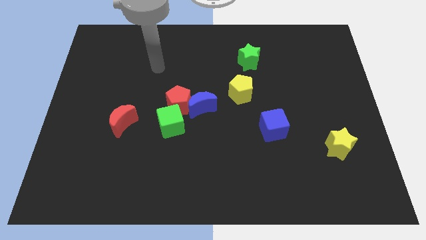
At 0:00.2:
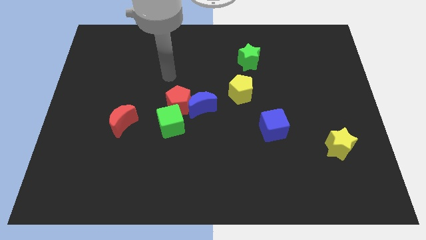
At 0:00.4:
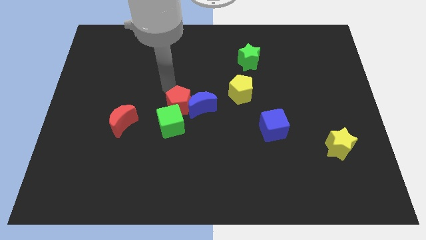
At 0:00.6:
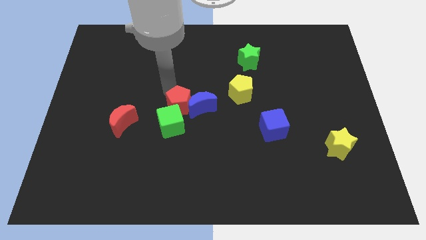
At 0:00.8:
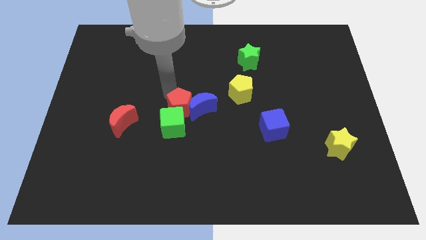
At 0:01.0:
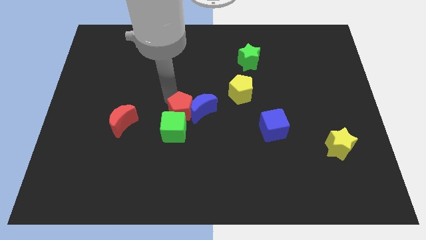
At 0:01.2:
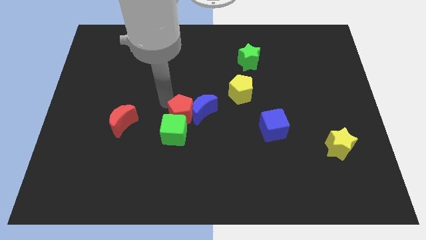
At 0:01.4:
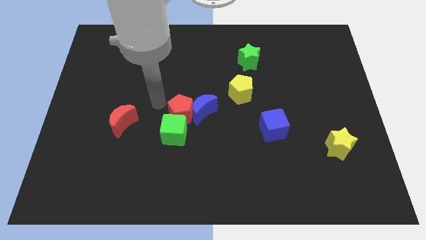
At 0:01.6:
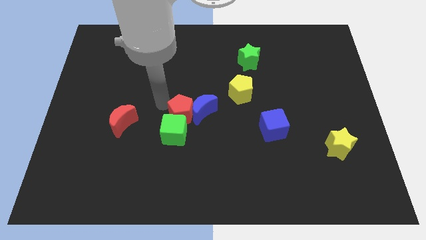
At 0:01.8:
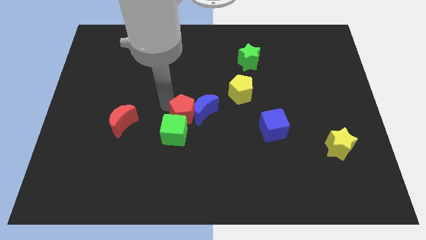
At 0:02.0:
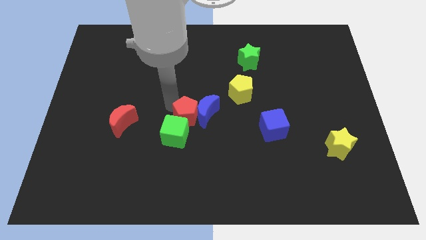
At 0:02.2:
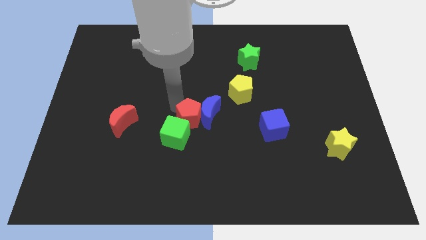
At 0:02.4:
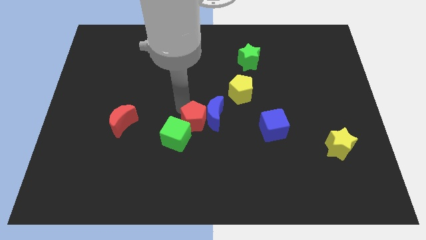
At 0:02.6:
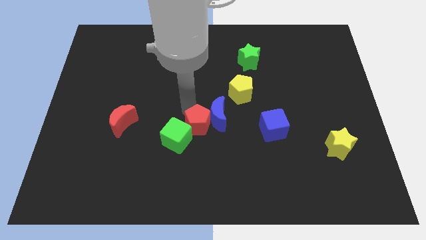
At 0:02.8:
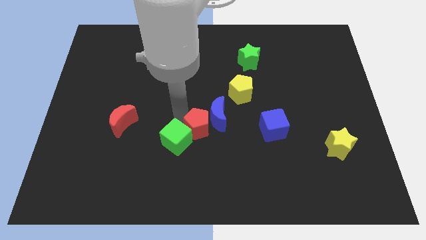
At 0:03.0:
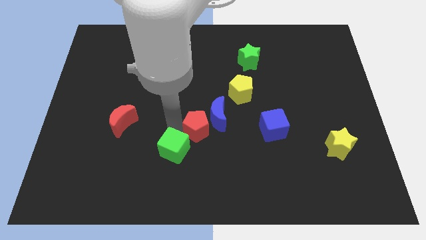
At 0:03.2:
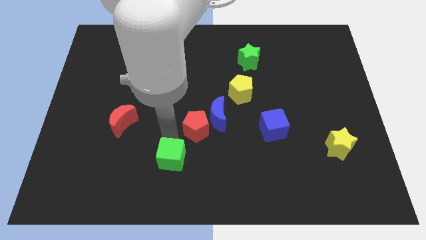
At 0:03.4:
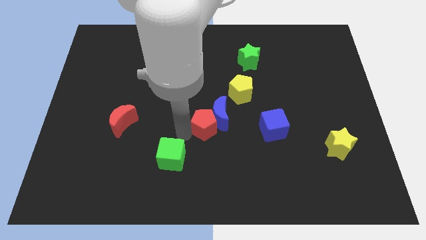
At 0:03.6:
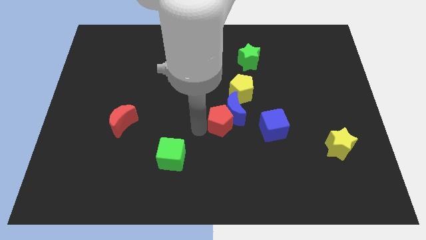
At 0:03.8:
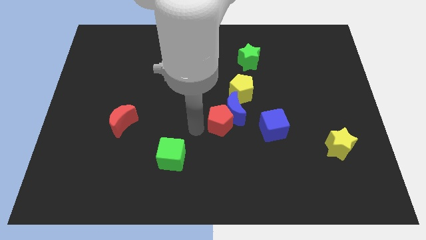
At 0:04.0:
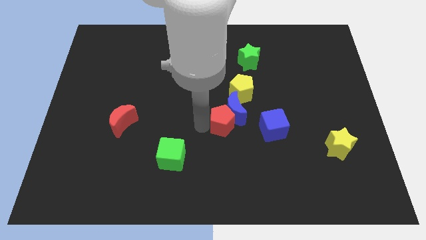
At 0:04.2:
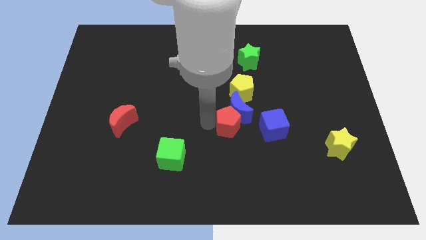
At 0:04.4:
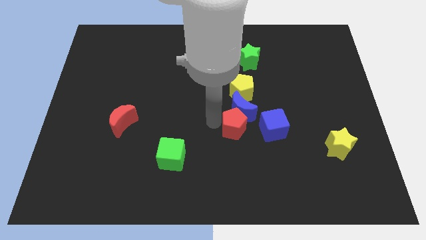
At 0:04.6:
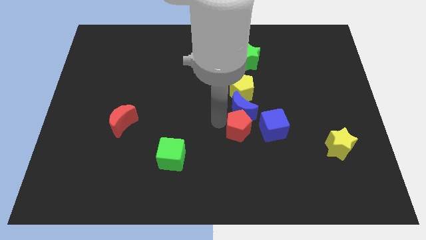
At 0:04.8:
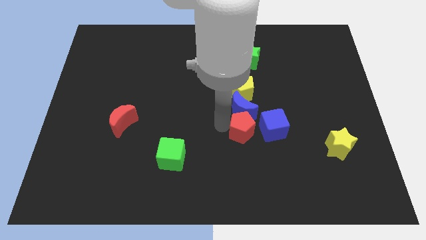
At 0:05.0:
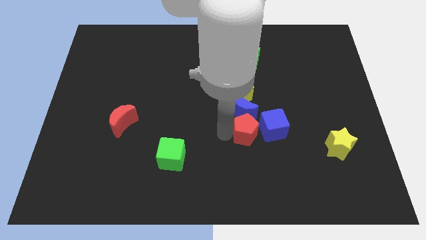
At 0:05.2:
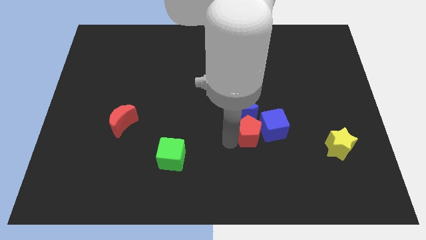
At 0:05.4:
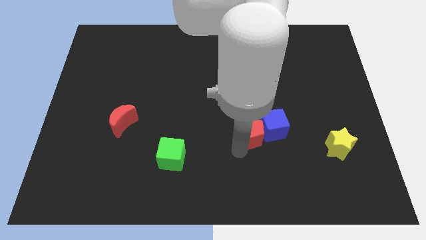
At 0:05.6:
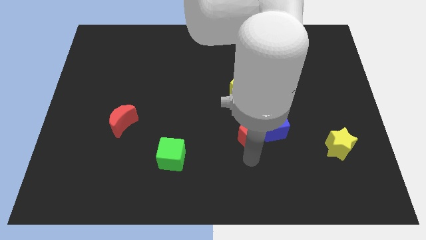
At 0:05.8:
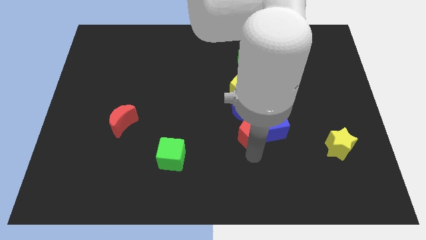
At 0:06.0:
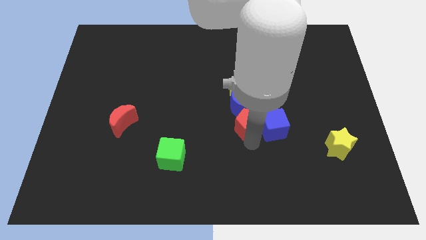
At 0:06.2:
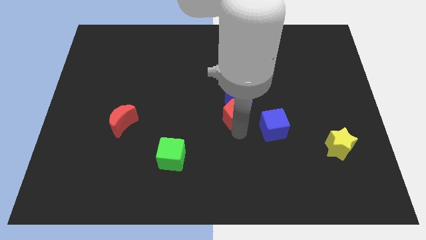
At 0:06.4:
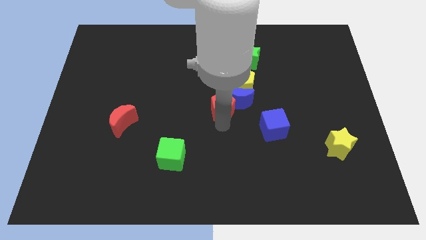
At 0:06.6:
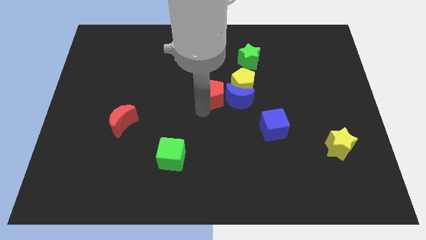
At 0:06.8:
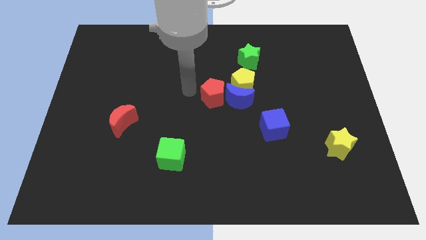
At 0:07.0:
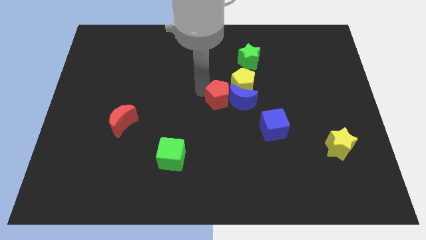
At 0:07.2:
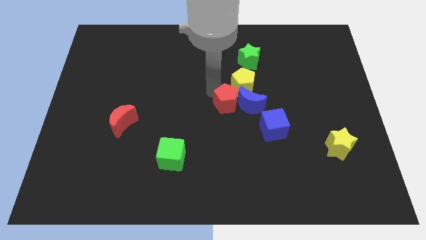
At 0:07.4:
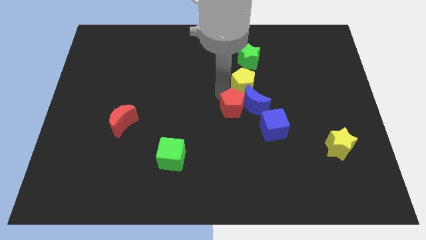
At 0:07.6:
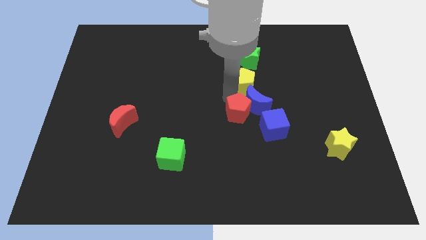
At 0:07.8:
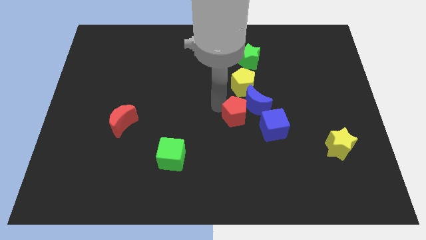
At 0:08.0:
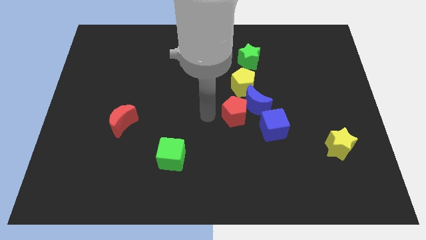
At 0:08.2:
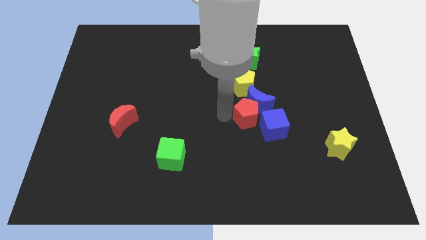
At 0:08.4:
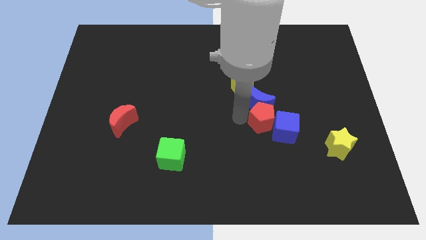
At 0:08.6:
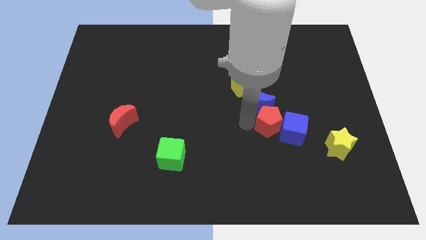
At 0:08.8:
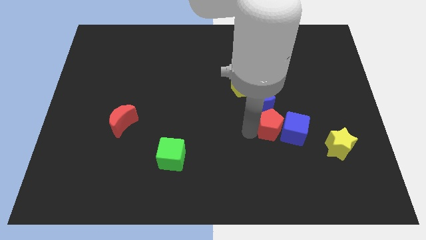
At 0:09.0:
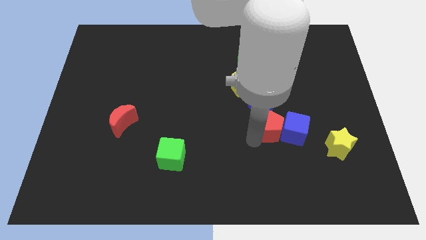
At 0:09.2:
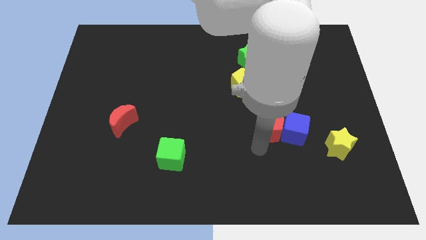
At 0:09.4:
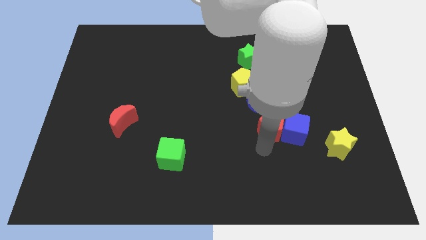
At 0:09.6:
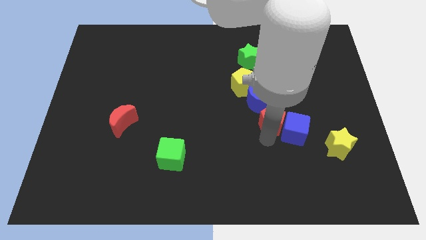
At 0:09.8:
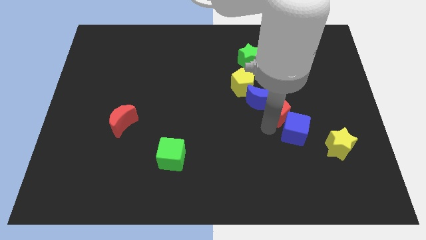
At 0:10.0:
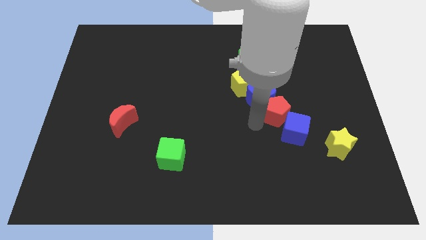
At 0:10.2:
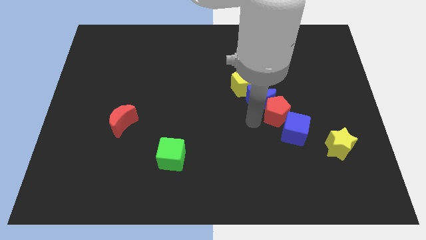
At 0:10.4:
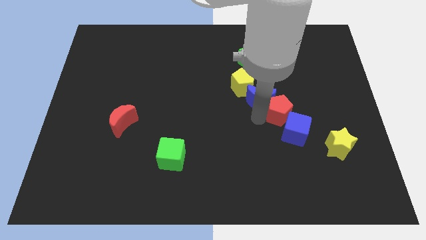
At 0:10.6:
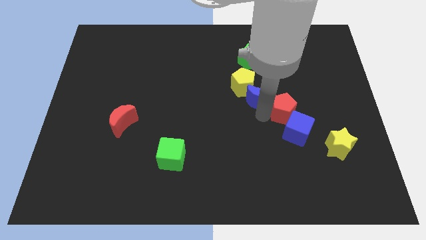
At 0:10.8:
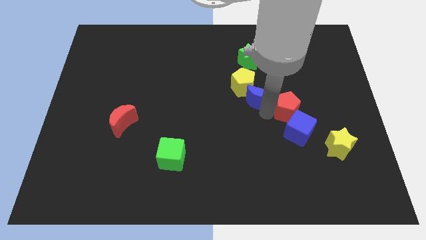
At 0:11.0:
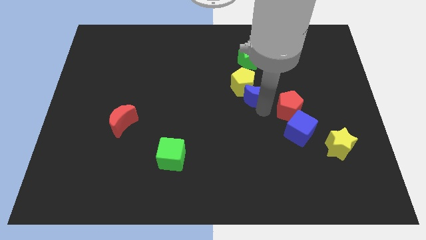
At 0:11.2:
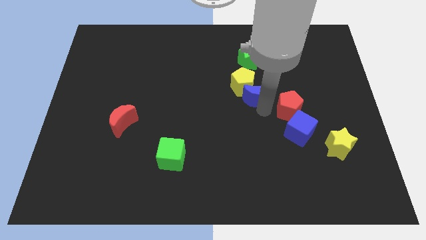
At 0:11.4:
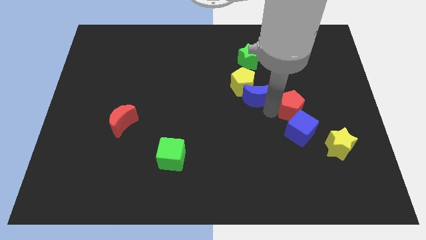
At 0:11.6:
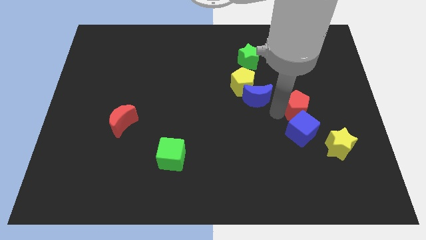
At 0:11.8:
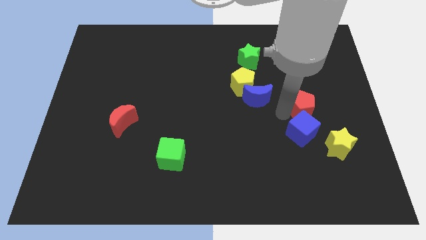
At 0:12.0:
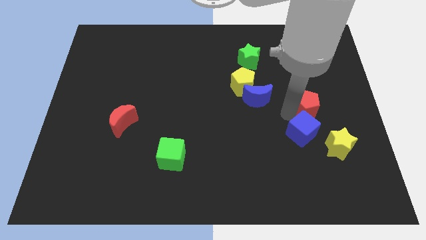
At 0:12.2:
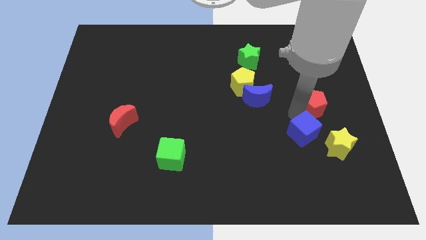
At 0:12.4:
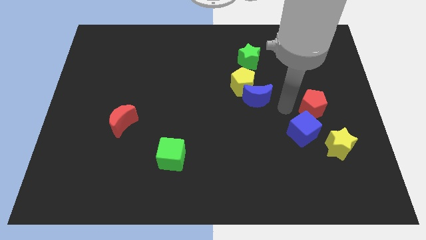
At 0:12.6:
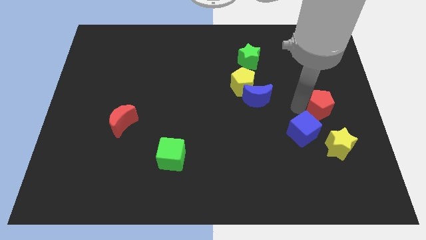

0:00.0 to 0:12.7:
put the red pentagon to the center right
